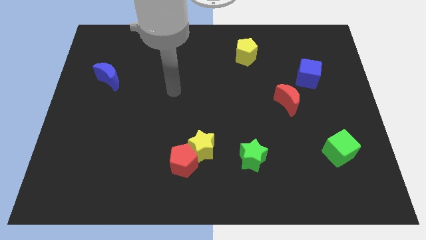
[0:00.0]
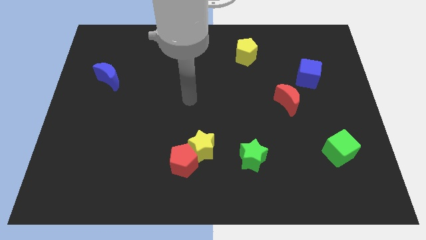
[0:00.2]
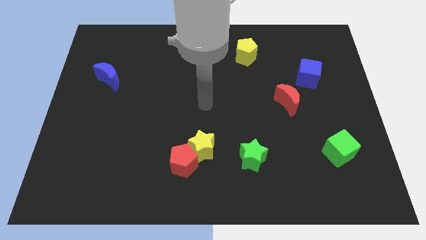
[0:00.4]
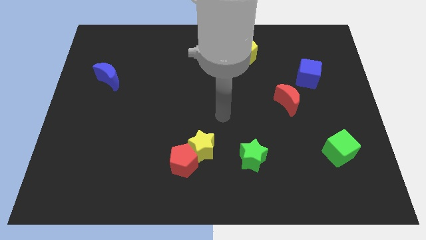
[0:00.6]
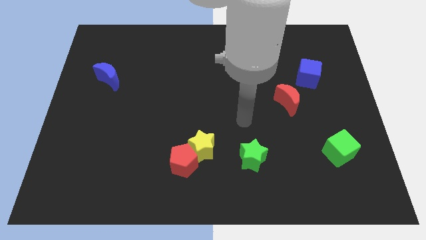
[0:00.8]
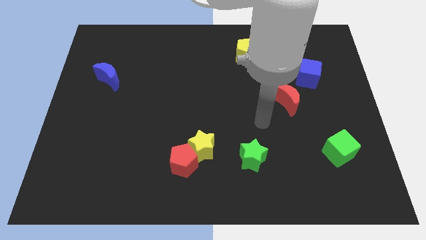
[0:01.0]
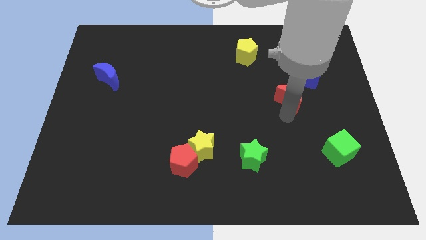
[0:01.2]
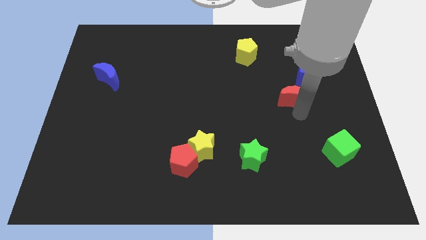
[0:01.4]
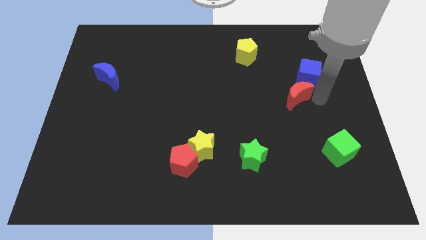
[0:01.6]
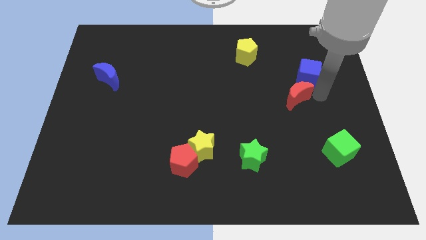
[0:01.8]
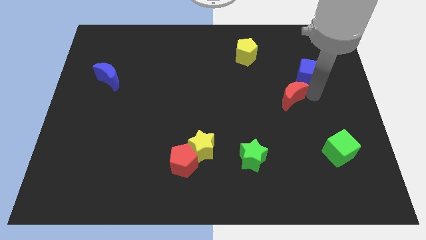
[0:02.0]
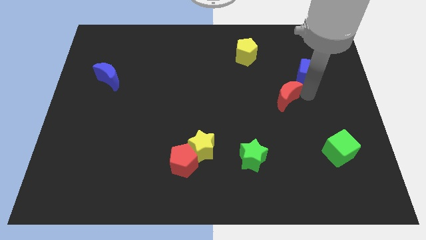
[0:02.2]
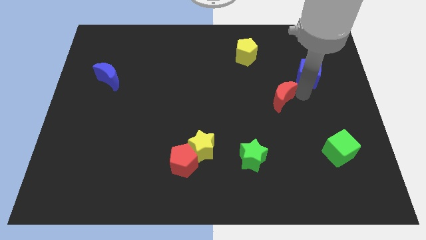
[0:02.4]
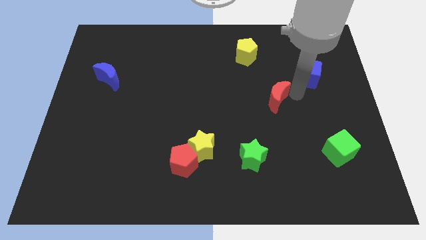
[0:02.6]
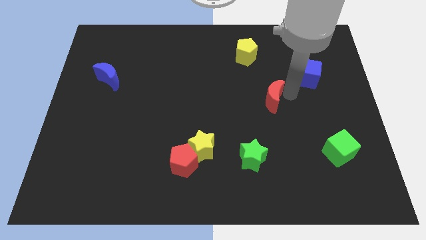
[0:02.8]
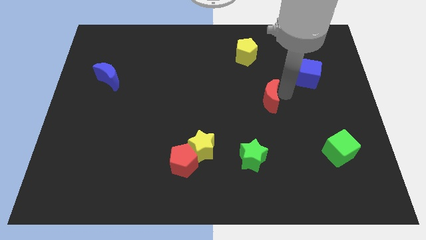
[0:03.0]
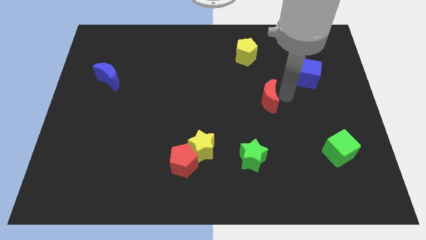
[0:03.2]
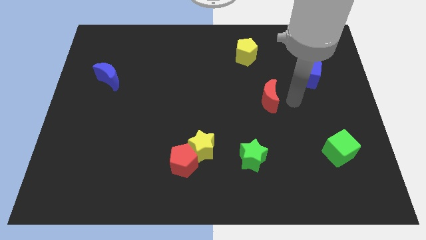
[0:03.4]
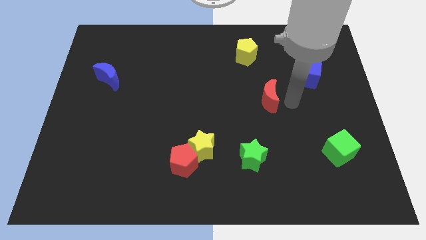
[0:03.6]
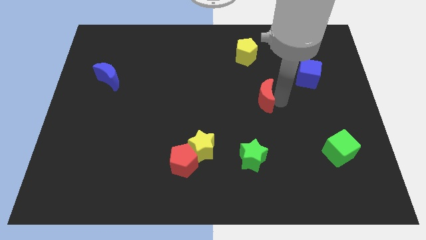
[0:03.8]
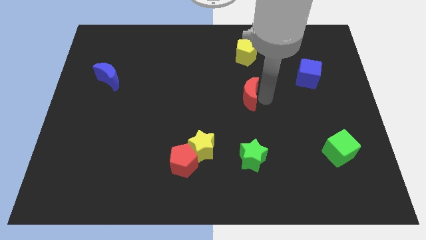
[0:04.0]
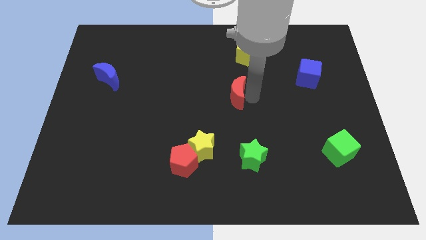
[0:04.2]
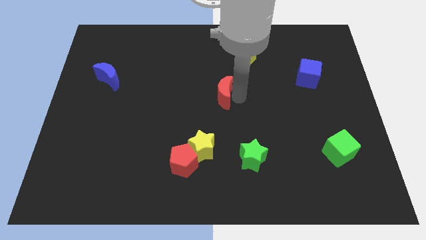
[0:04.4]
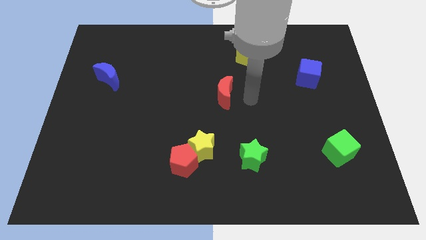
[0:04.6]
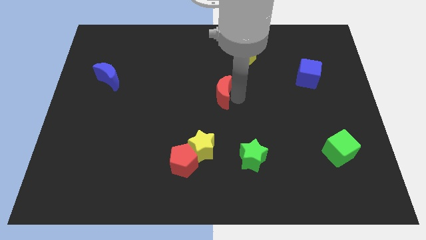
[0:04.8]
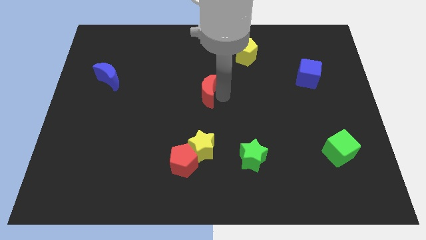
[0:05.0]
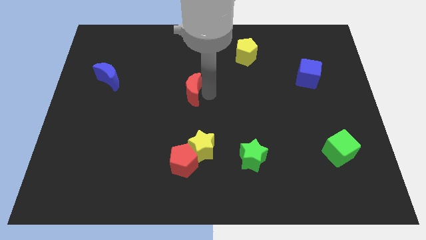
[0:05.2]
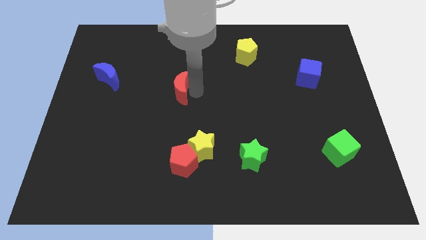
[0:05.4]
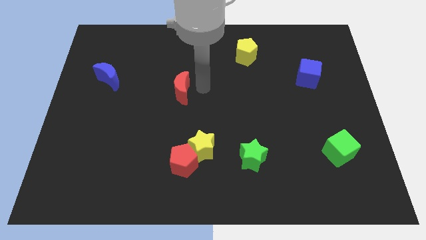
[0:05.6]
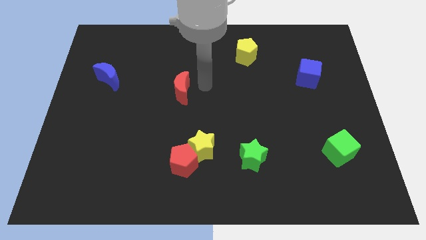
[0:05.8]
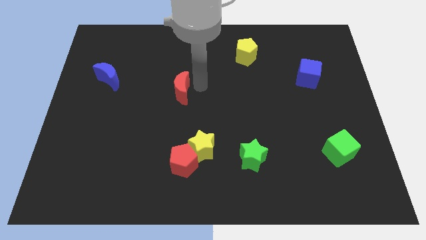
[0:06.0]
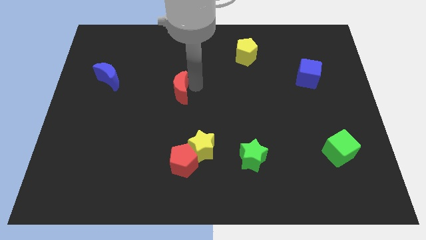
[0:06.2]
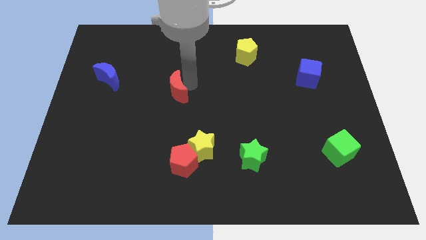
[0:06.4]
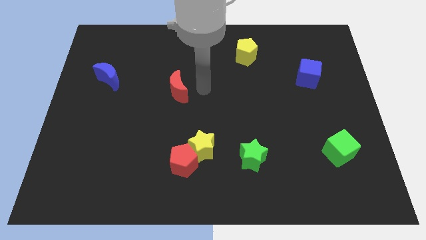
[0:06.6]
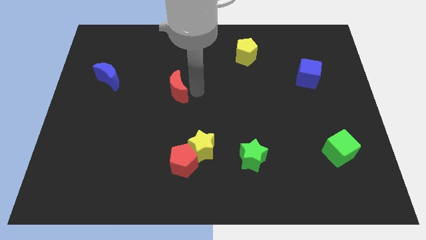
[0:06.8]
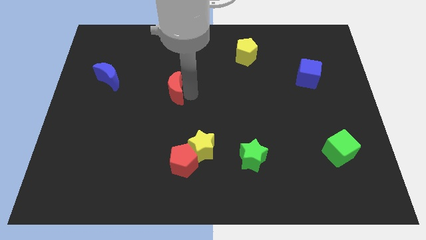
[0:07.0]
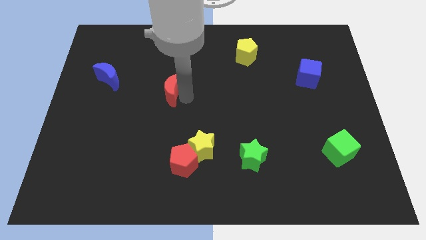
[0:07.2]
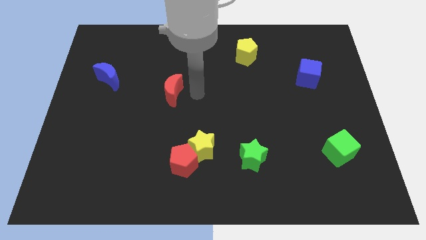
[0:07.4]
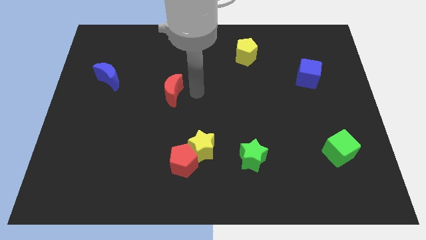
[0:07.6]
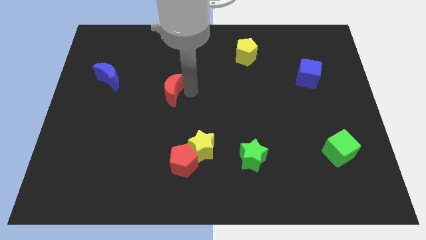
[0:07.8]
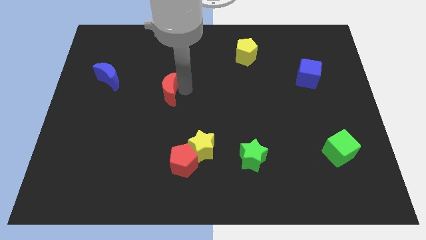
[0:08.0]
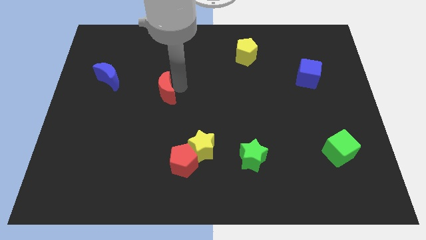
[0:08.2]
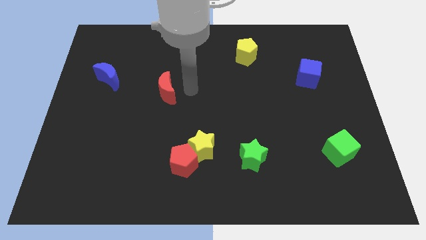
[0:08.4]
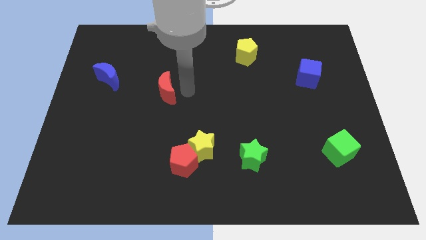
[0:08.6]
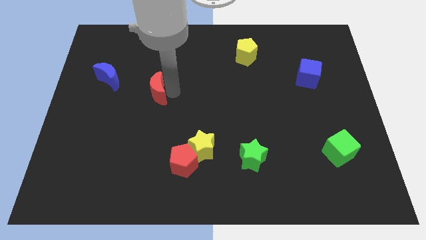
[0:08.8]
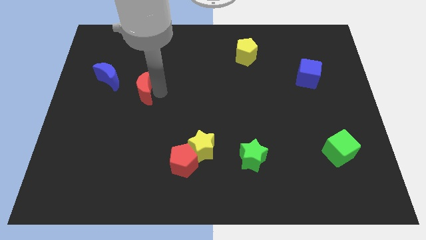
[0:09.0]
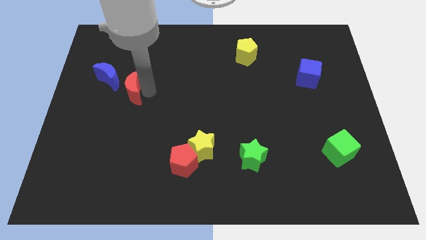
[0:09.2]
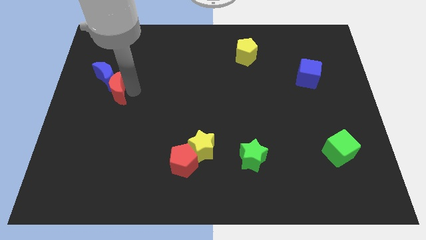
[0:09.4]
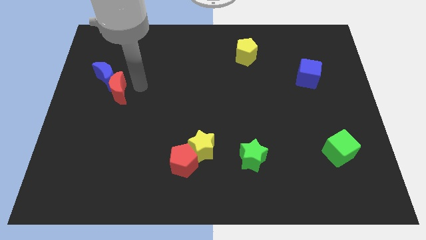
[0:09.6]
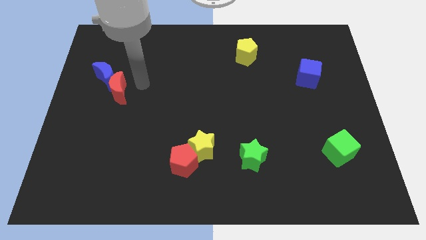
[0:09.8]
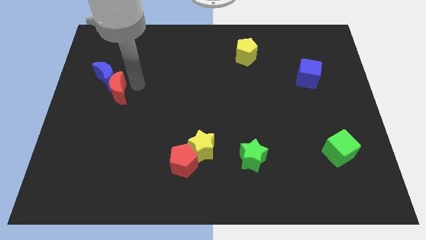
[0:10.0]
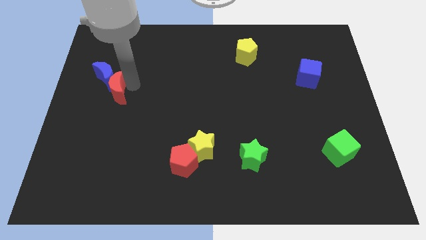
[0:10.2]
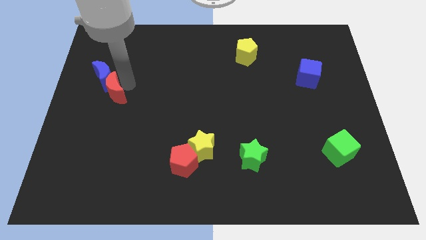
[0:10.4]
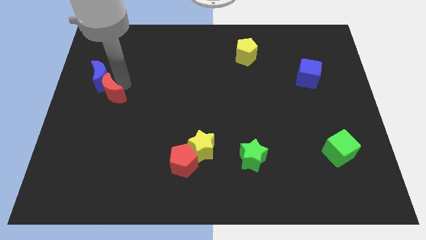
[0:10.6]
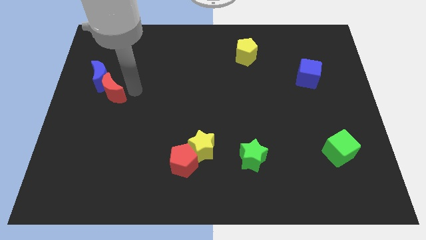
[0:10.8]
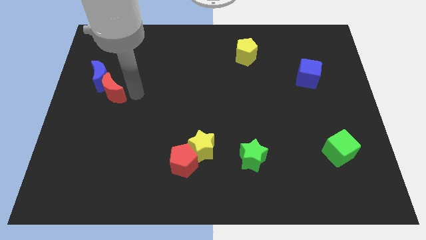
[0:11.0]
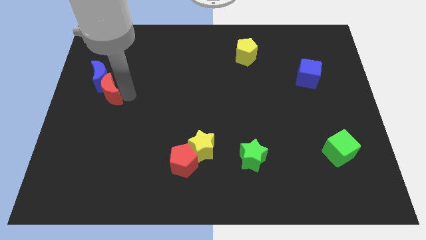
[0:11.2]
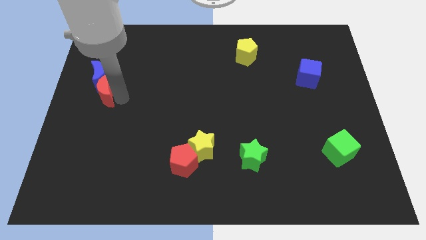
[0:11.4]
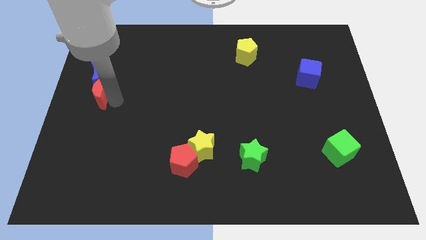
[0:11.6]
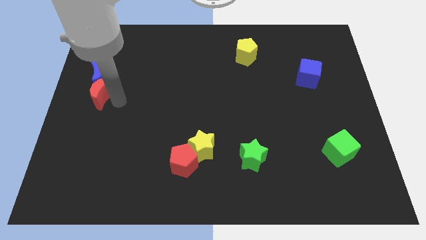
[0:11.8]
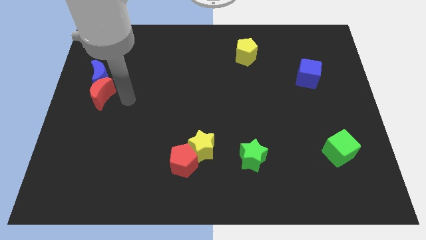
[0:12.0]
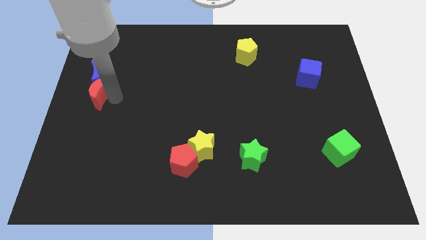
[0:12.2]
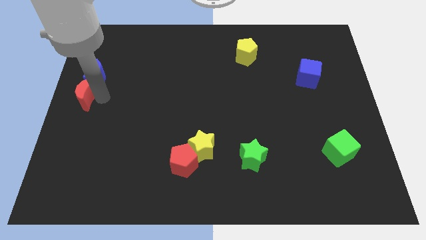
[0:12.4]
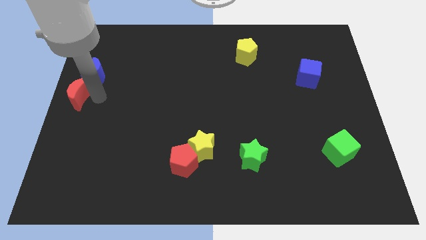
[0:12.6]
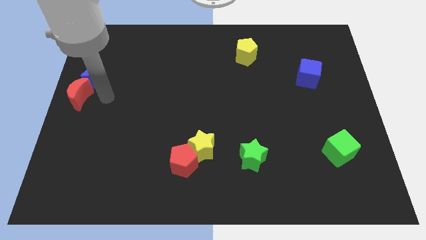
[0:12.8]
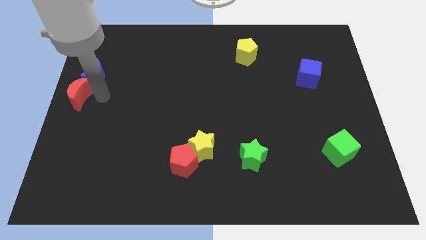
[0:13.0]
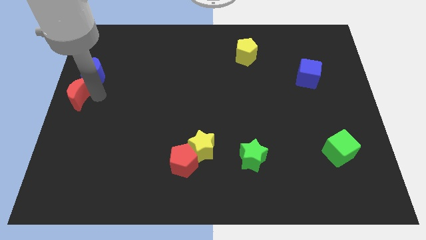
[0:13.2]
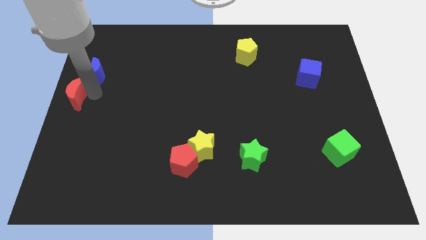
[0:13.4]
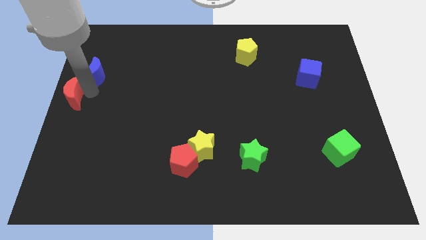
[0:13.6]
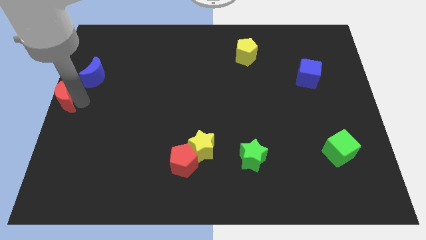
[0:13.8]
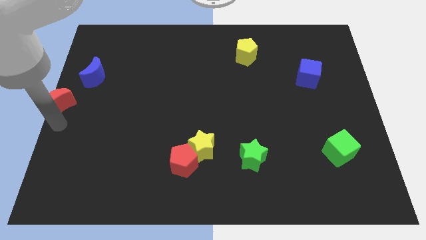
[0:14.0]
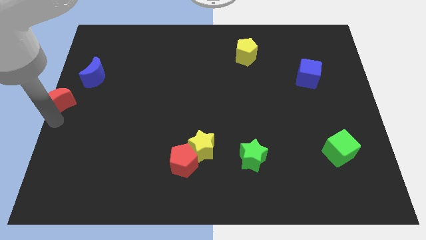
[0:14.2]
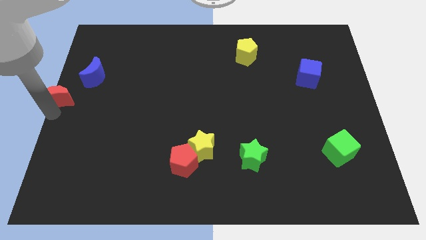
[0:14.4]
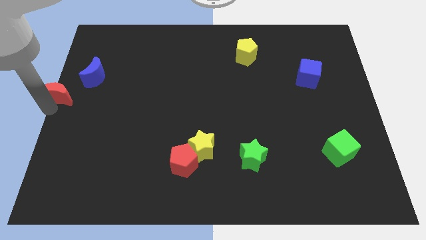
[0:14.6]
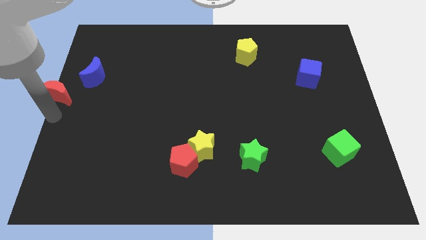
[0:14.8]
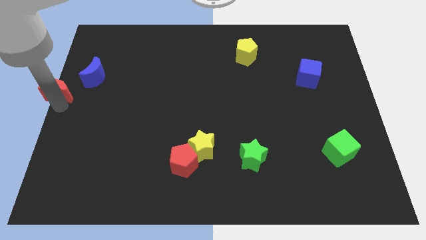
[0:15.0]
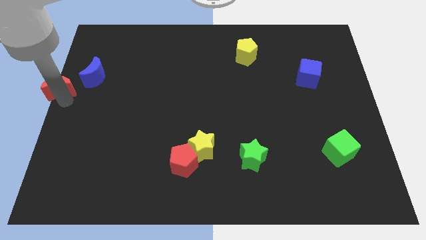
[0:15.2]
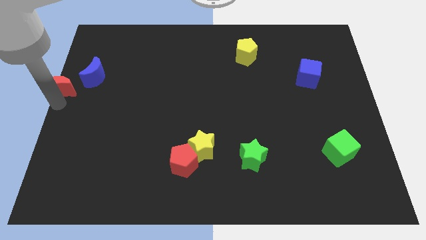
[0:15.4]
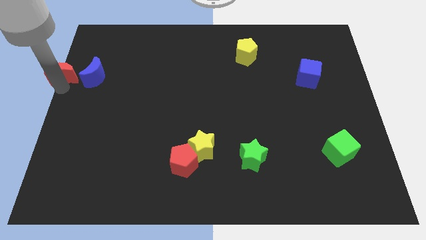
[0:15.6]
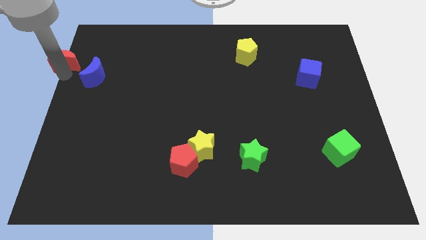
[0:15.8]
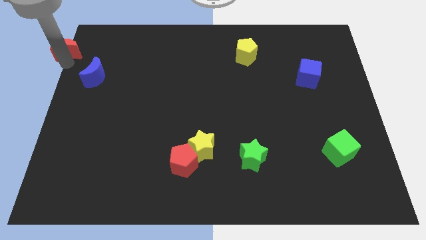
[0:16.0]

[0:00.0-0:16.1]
push the red moon to the top left
